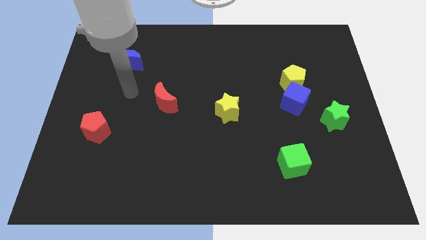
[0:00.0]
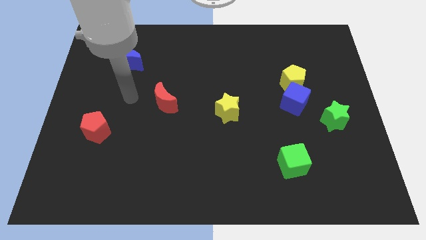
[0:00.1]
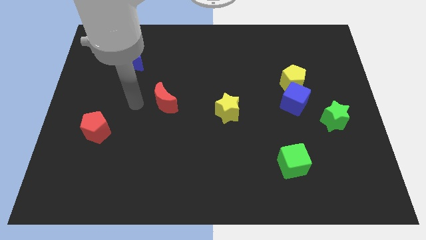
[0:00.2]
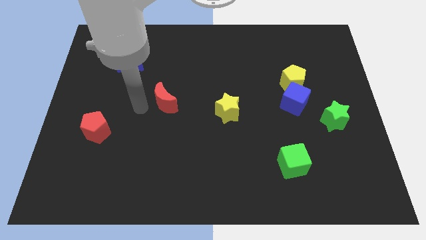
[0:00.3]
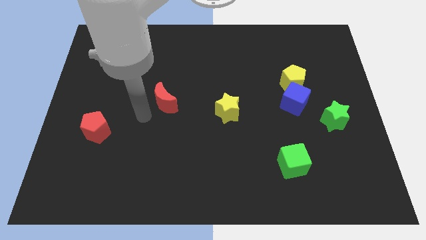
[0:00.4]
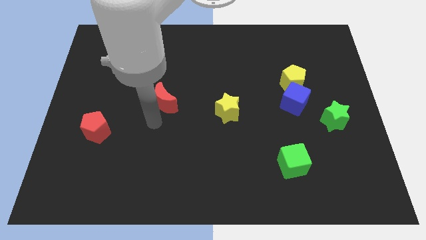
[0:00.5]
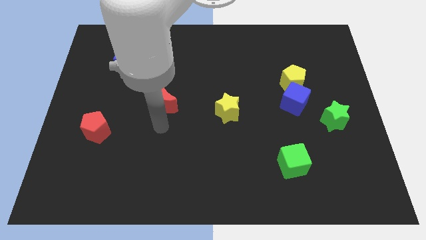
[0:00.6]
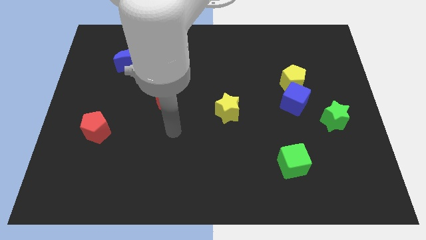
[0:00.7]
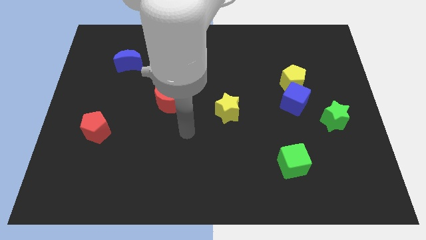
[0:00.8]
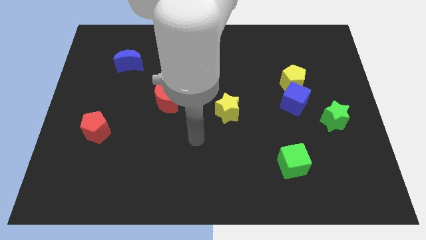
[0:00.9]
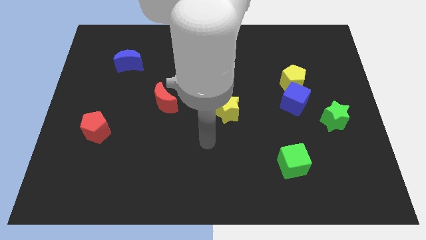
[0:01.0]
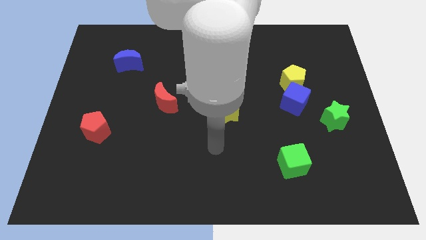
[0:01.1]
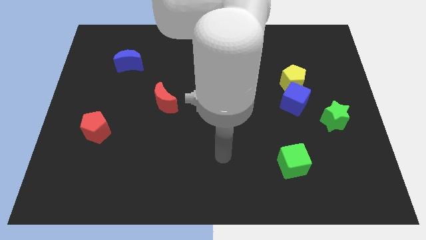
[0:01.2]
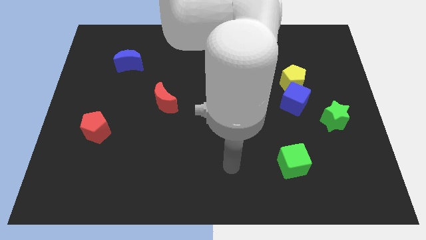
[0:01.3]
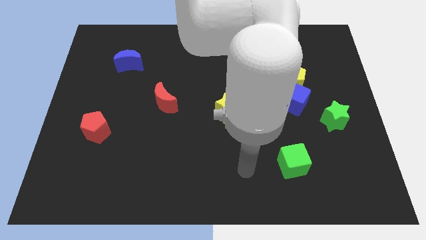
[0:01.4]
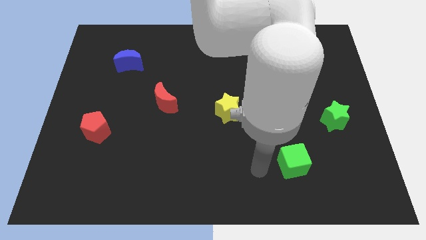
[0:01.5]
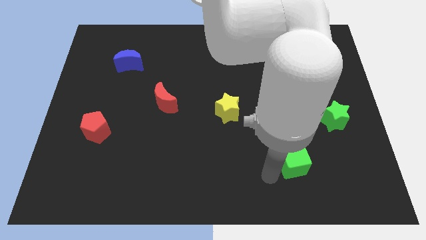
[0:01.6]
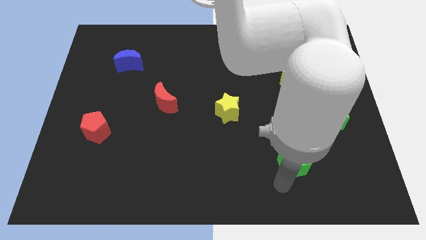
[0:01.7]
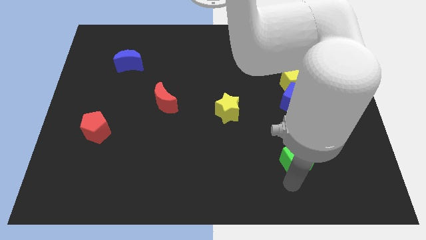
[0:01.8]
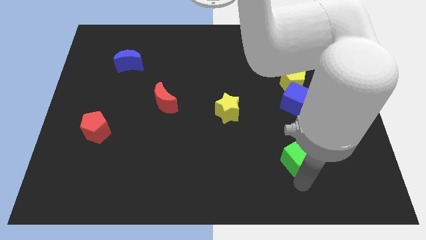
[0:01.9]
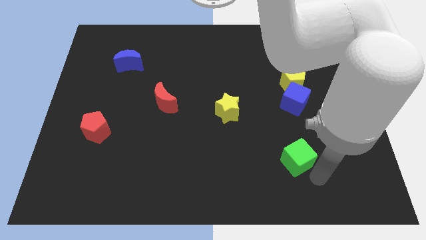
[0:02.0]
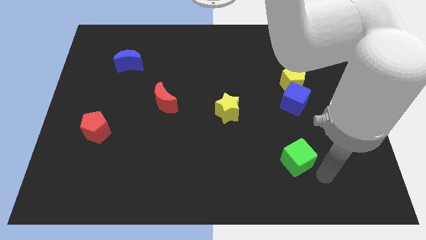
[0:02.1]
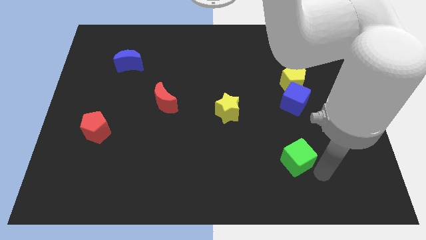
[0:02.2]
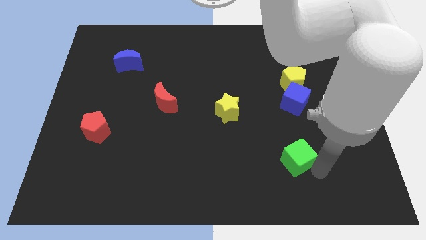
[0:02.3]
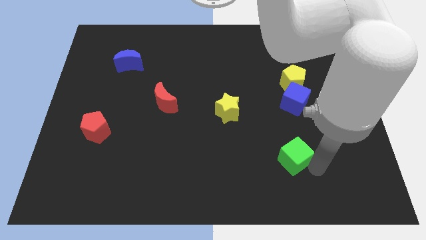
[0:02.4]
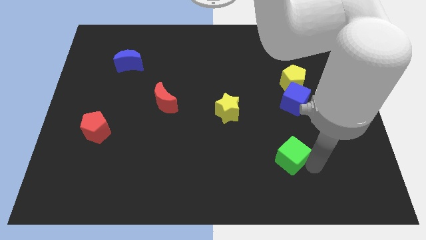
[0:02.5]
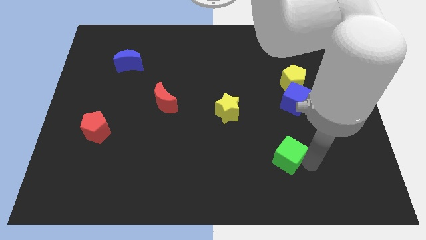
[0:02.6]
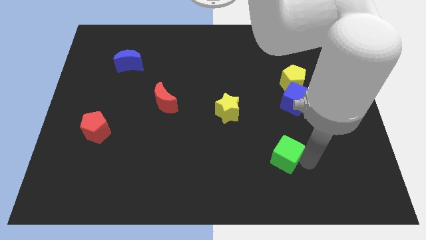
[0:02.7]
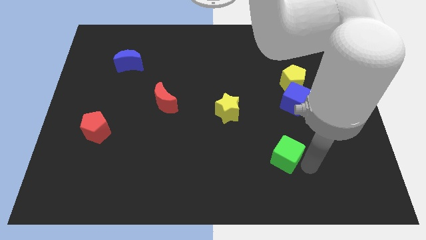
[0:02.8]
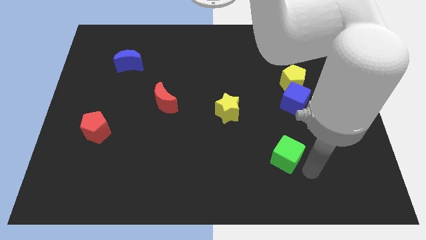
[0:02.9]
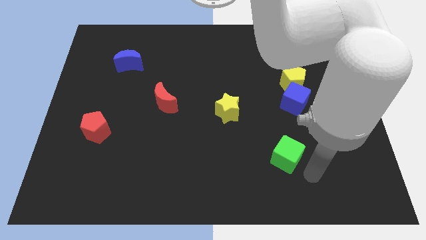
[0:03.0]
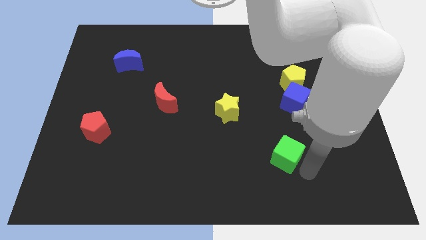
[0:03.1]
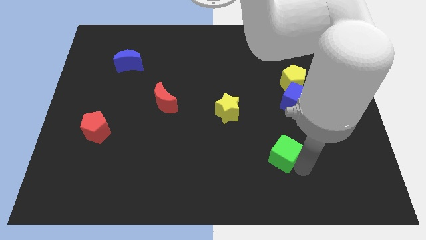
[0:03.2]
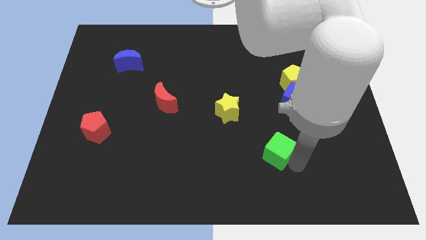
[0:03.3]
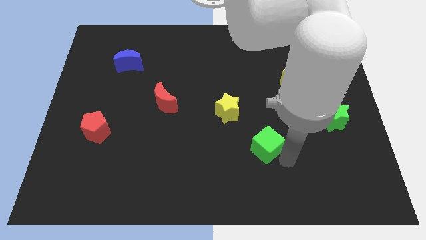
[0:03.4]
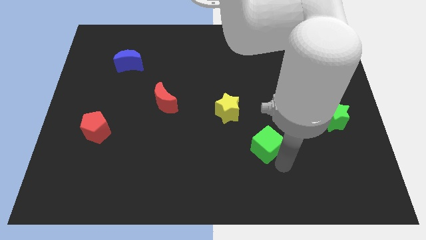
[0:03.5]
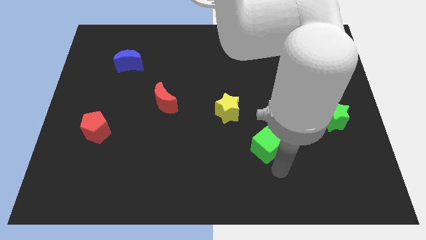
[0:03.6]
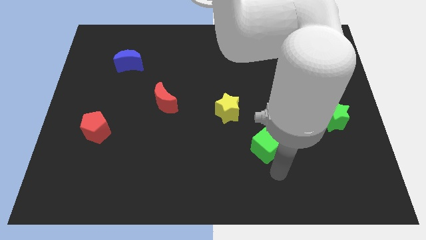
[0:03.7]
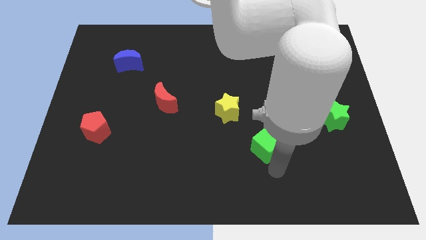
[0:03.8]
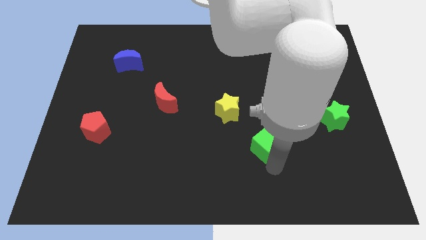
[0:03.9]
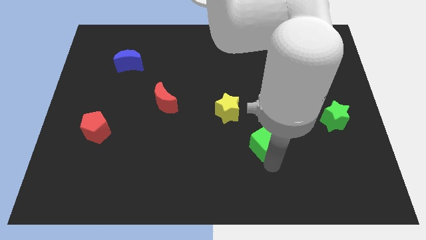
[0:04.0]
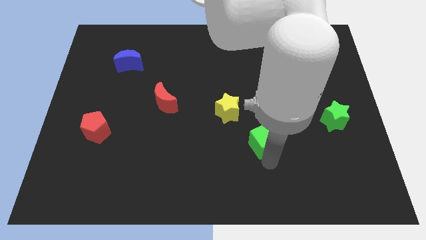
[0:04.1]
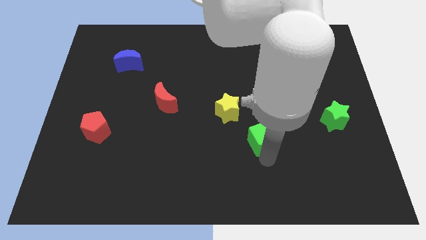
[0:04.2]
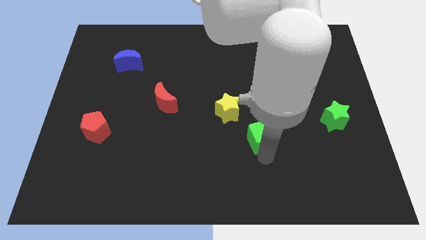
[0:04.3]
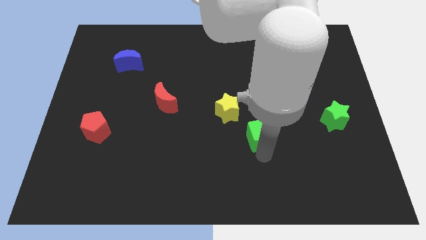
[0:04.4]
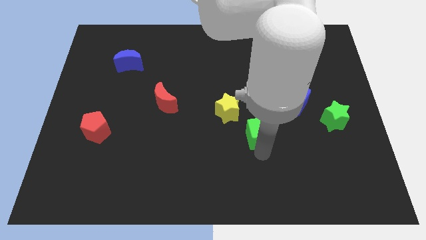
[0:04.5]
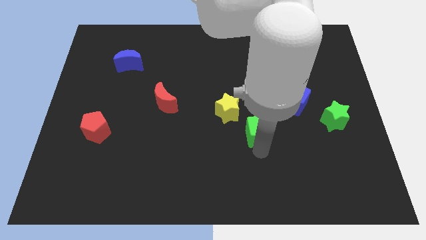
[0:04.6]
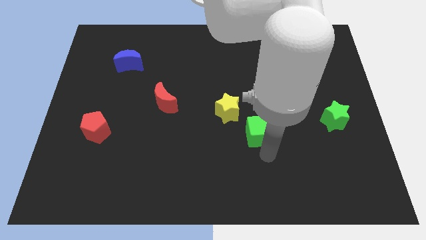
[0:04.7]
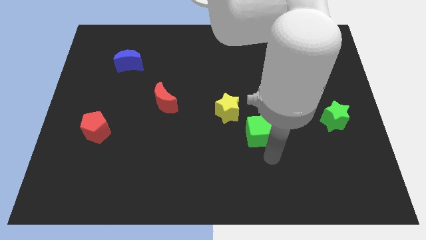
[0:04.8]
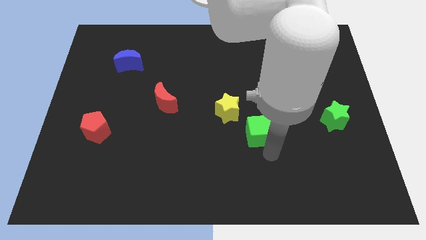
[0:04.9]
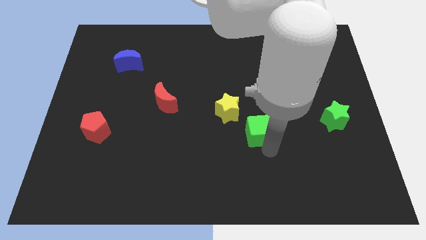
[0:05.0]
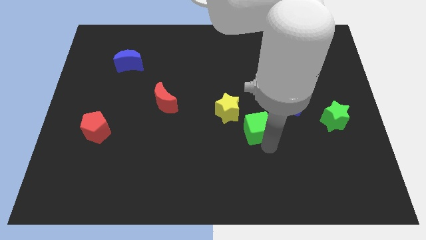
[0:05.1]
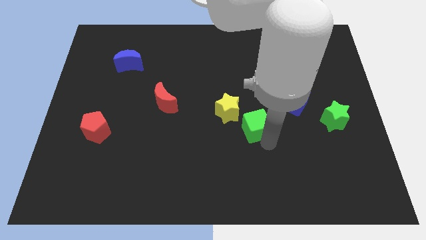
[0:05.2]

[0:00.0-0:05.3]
slide the green cube to the middle of the board

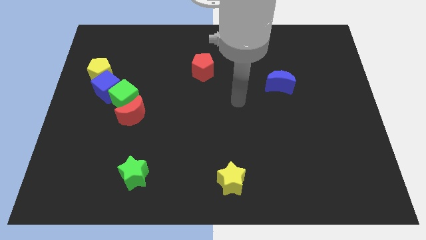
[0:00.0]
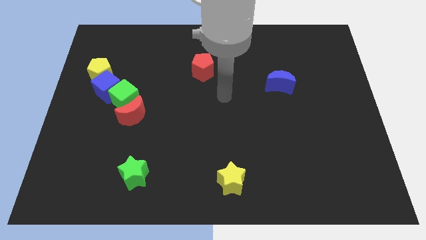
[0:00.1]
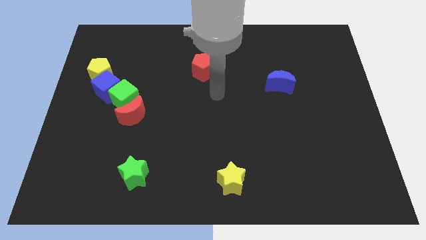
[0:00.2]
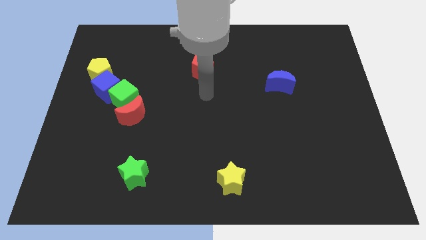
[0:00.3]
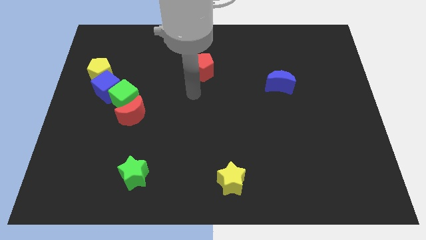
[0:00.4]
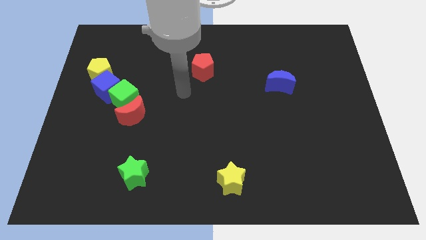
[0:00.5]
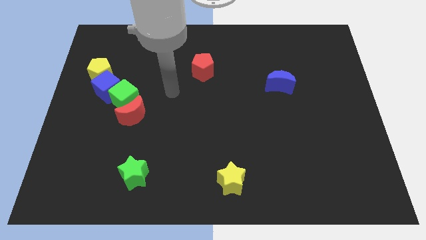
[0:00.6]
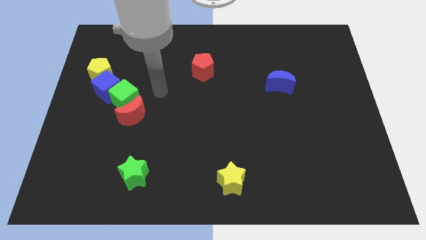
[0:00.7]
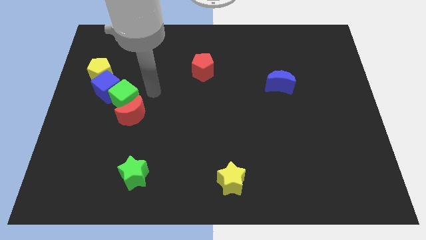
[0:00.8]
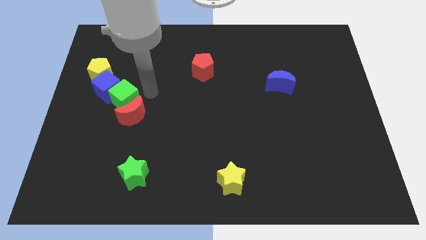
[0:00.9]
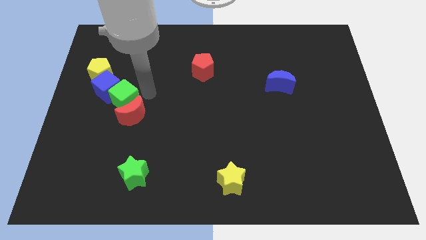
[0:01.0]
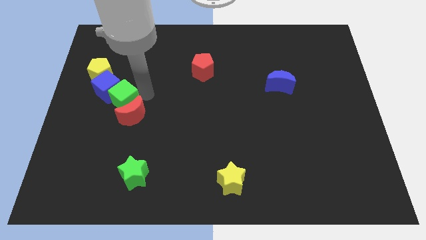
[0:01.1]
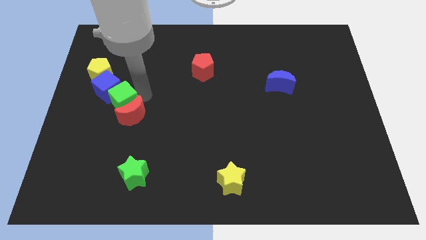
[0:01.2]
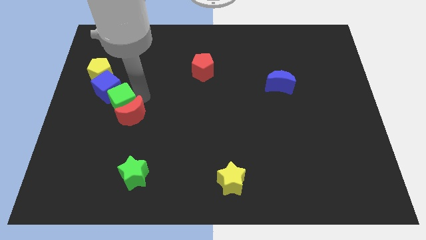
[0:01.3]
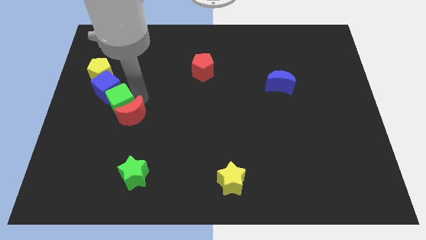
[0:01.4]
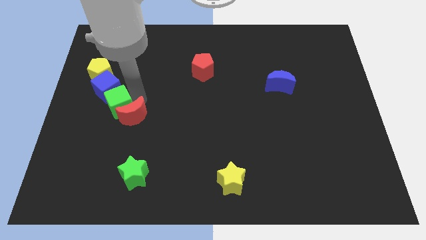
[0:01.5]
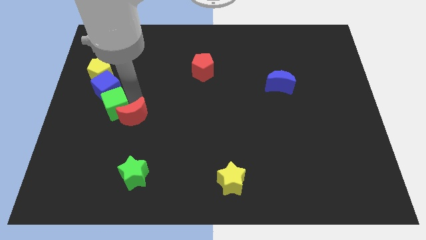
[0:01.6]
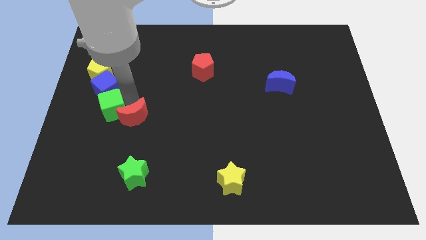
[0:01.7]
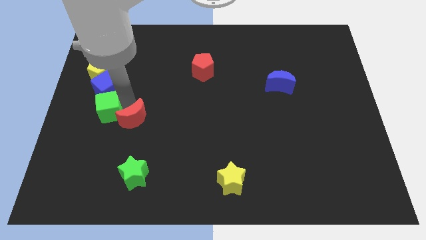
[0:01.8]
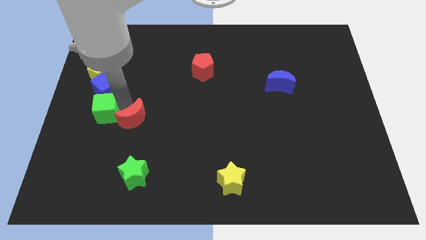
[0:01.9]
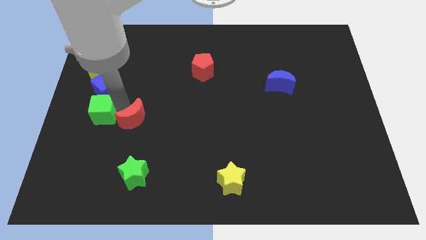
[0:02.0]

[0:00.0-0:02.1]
move the green cube to the left side
